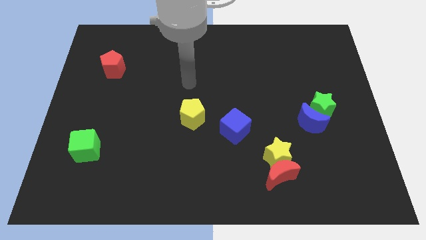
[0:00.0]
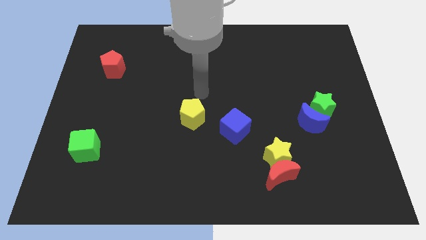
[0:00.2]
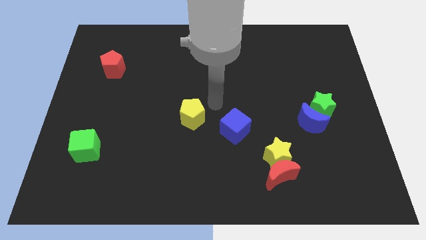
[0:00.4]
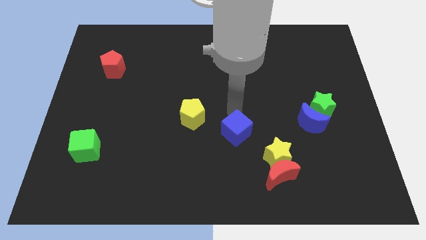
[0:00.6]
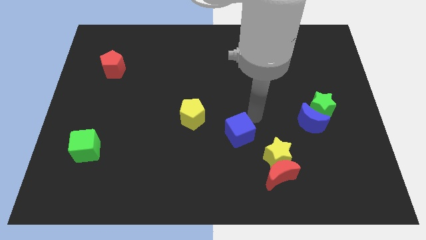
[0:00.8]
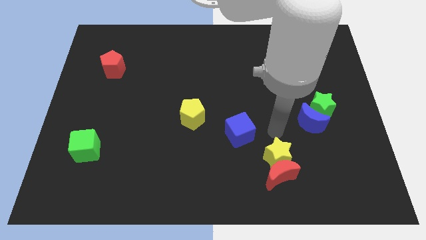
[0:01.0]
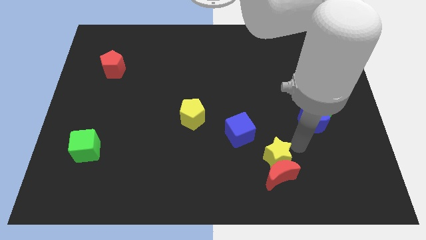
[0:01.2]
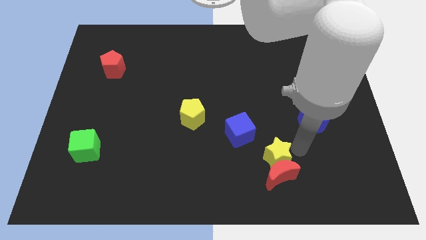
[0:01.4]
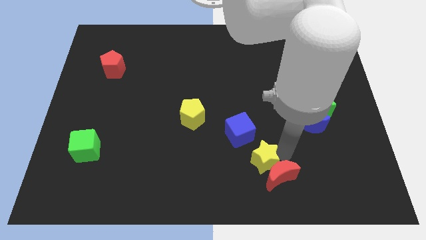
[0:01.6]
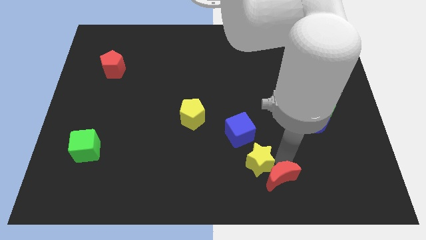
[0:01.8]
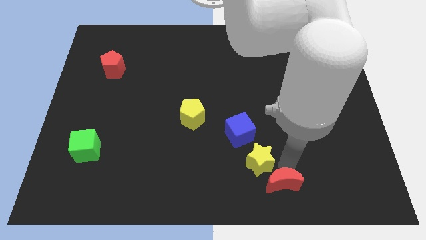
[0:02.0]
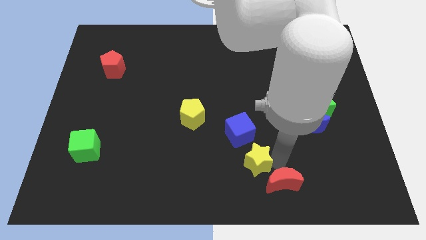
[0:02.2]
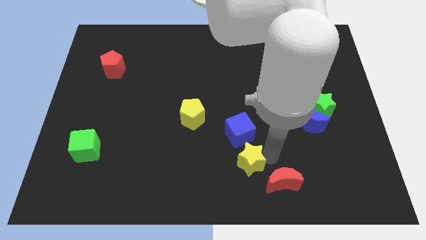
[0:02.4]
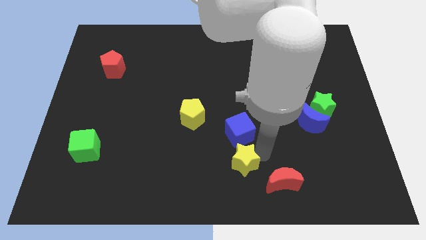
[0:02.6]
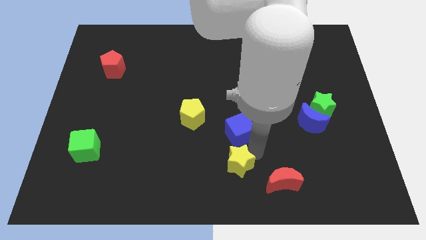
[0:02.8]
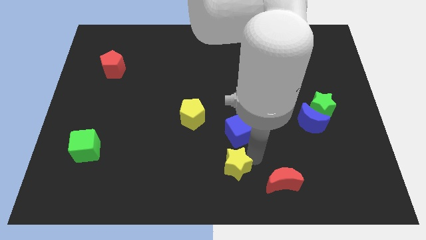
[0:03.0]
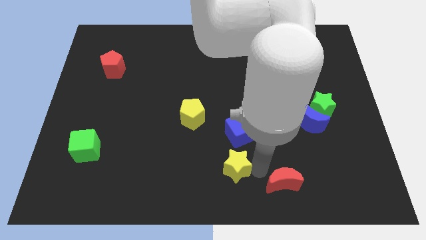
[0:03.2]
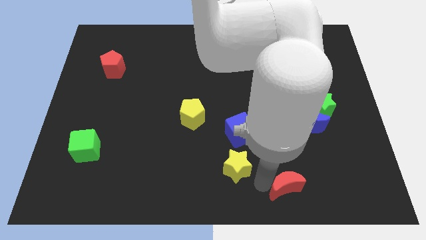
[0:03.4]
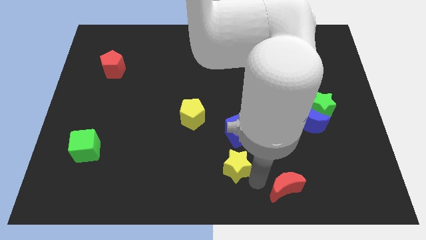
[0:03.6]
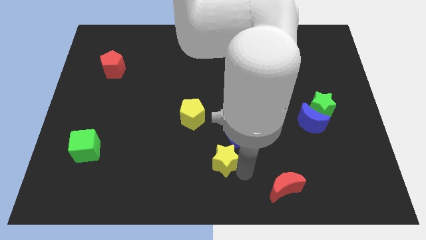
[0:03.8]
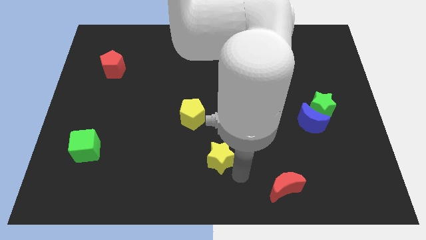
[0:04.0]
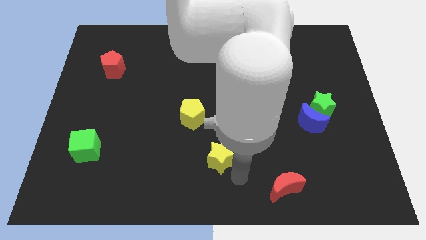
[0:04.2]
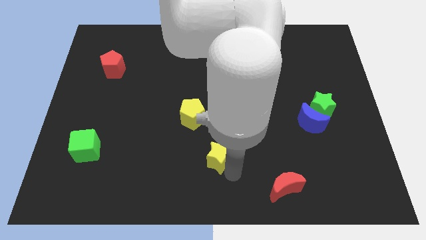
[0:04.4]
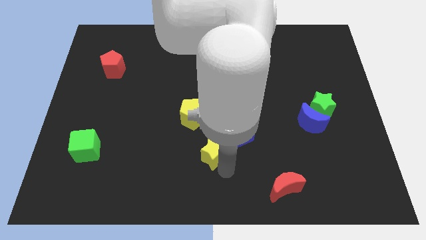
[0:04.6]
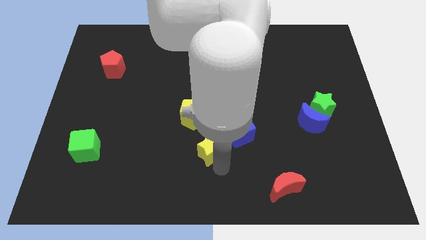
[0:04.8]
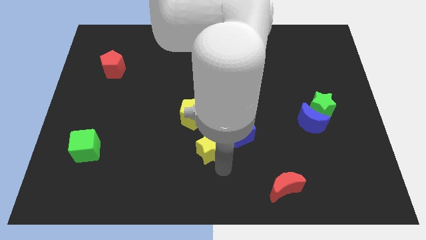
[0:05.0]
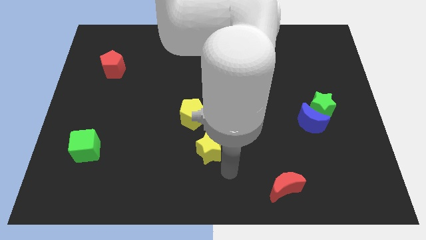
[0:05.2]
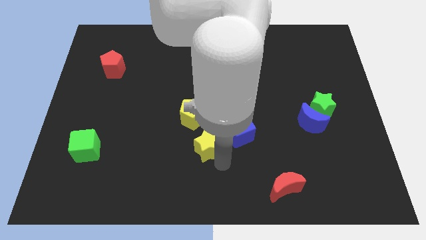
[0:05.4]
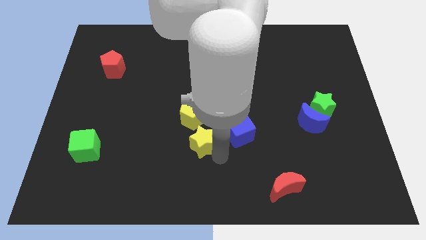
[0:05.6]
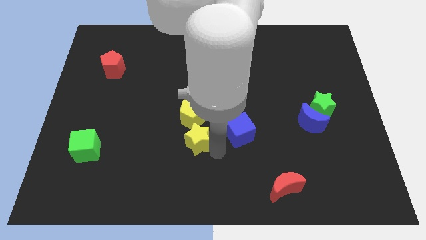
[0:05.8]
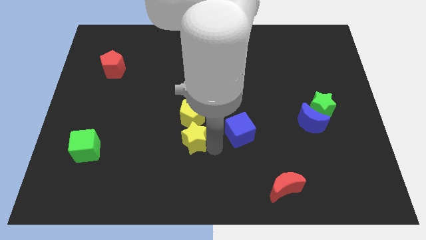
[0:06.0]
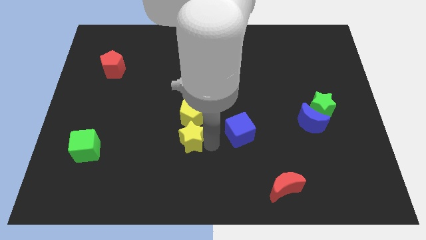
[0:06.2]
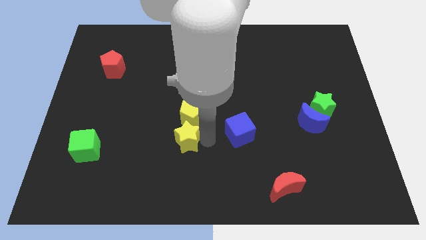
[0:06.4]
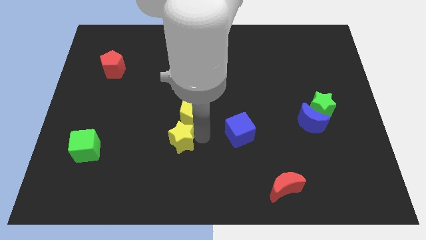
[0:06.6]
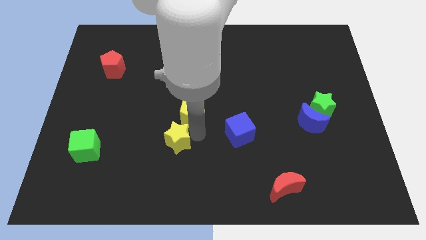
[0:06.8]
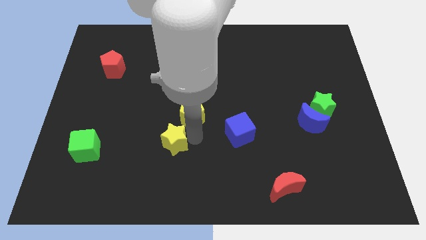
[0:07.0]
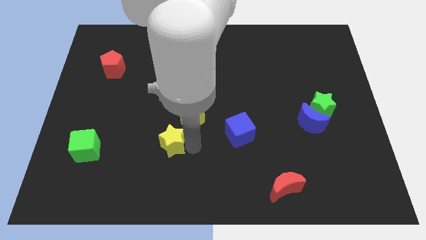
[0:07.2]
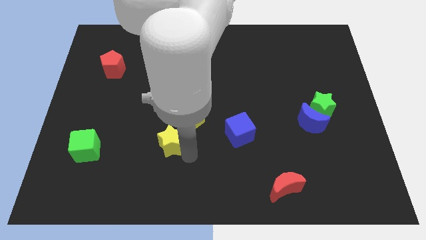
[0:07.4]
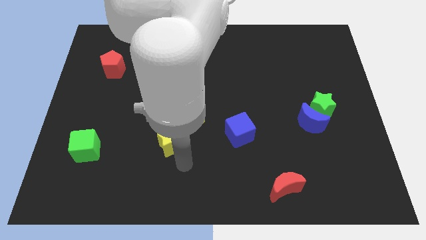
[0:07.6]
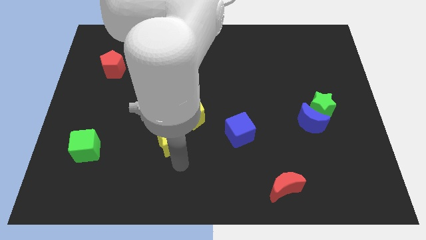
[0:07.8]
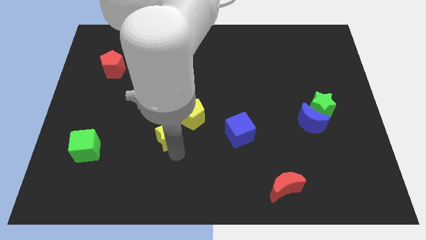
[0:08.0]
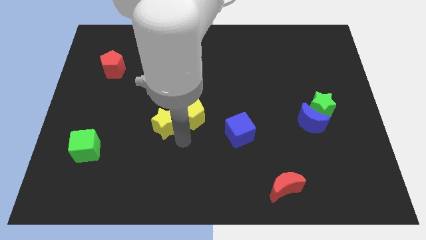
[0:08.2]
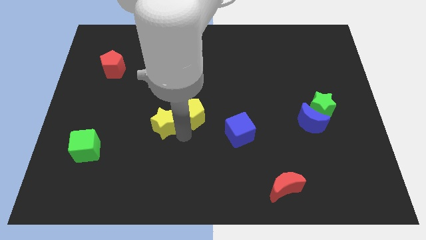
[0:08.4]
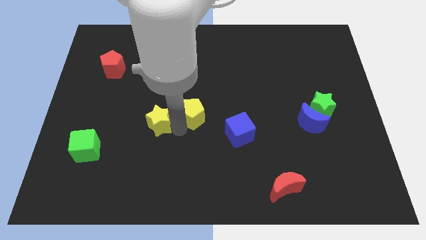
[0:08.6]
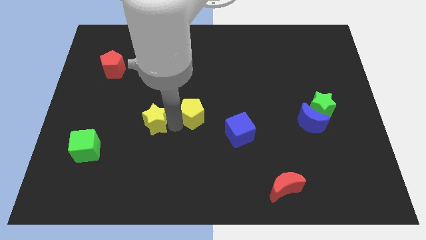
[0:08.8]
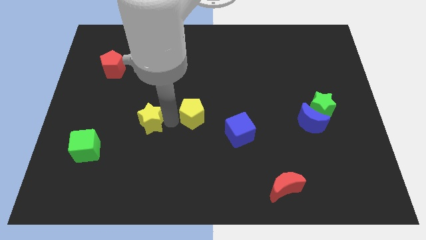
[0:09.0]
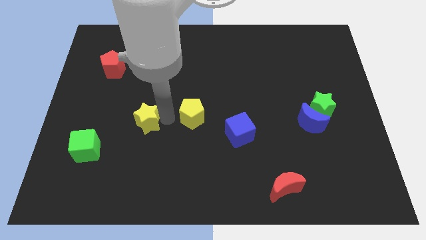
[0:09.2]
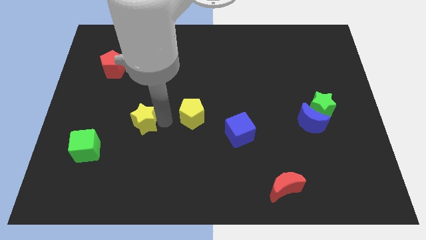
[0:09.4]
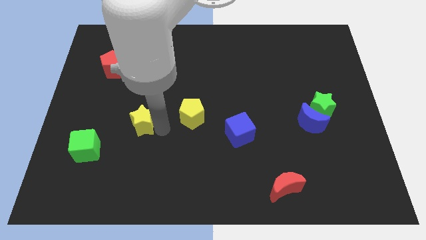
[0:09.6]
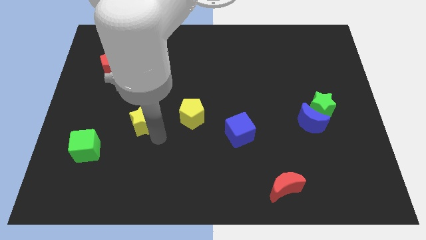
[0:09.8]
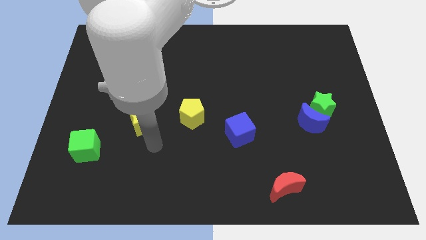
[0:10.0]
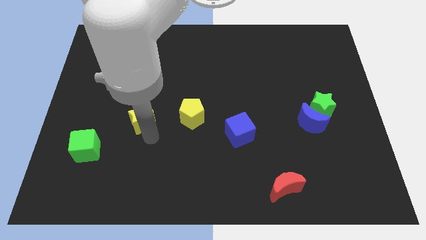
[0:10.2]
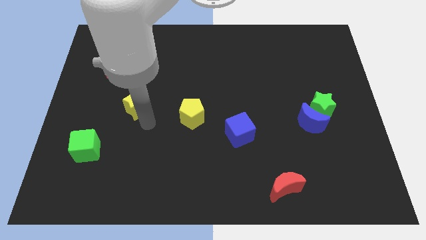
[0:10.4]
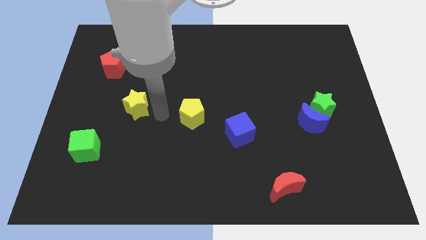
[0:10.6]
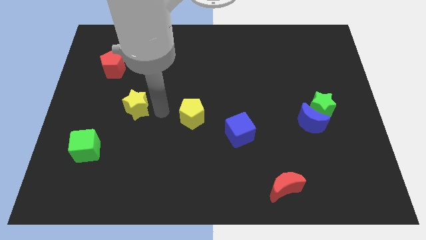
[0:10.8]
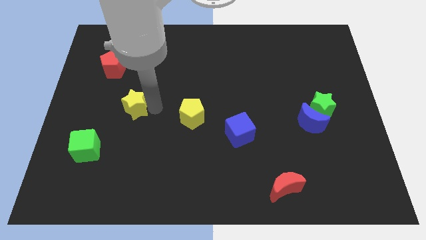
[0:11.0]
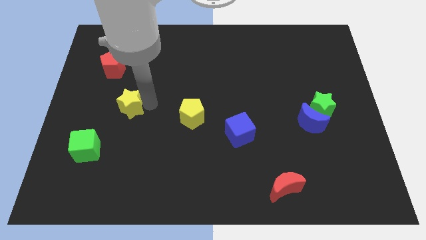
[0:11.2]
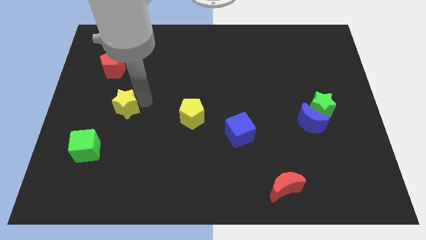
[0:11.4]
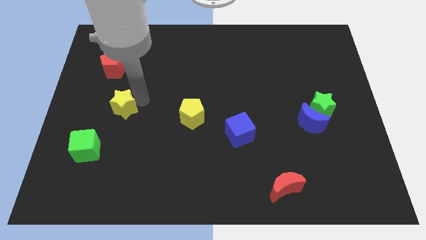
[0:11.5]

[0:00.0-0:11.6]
move the yellow star to the bottom of the red pentagon

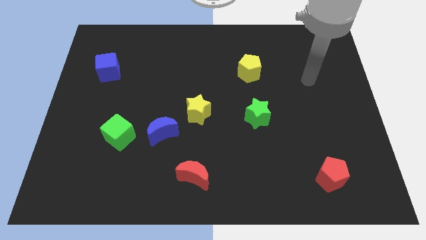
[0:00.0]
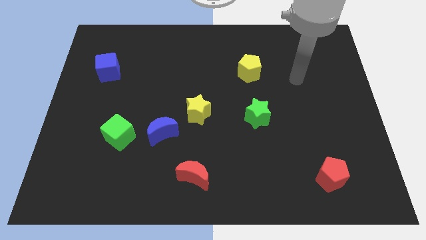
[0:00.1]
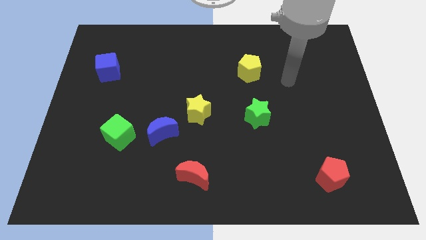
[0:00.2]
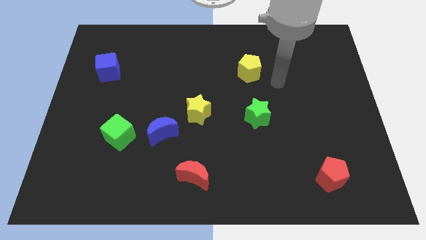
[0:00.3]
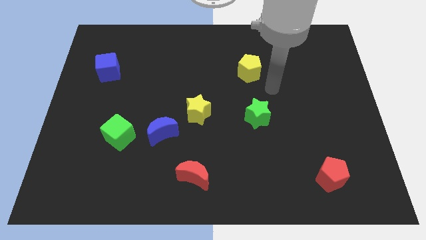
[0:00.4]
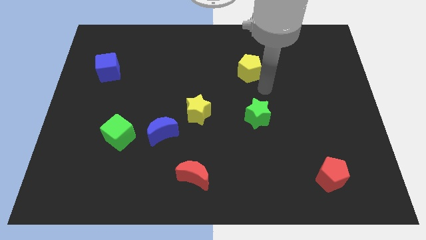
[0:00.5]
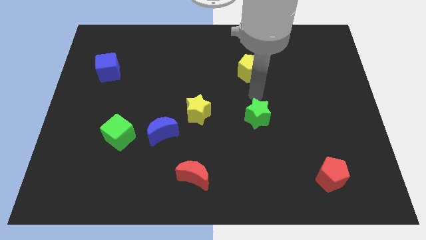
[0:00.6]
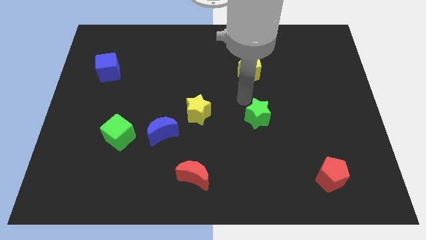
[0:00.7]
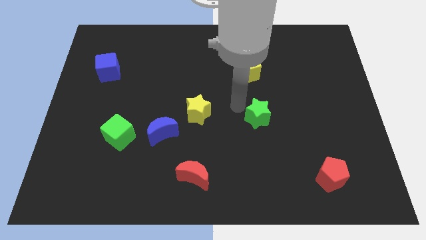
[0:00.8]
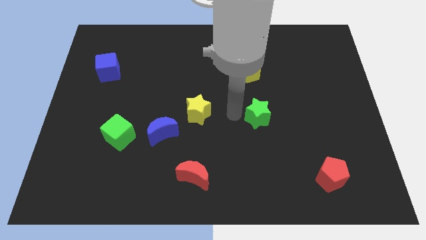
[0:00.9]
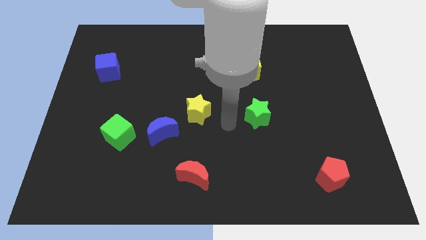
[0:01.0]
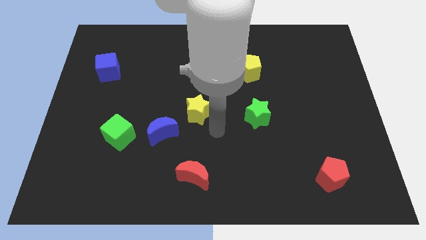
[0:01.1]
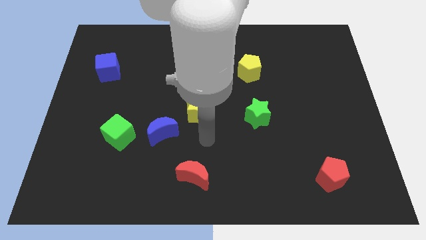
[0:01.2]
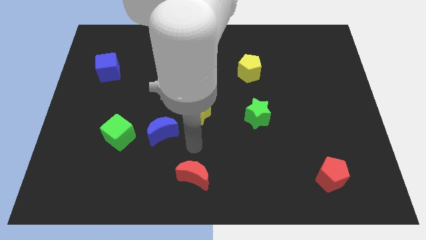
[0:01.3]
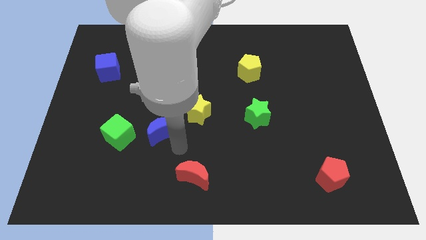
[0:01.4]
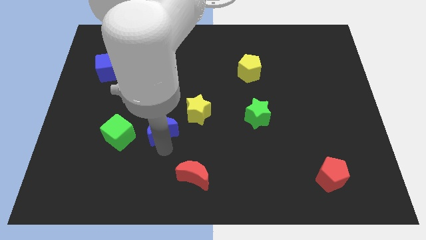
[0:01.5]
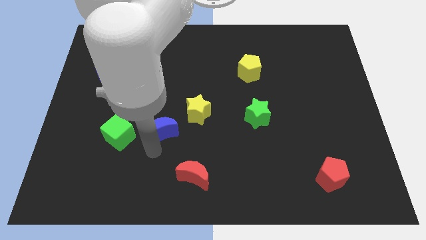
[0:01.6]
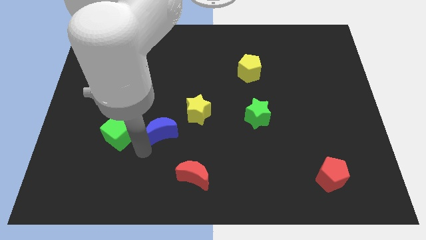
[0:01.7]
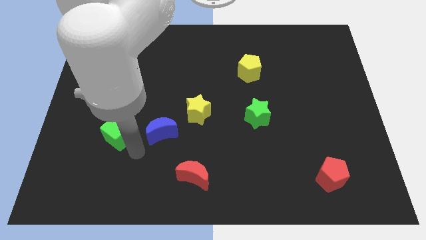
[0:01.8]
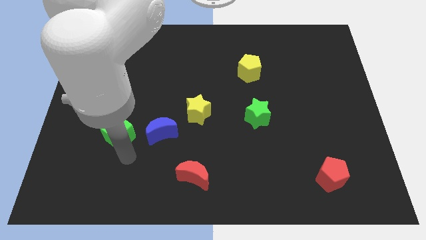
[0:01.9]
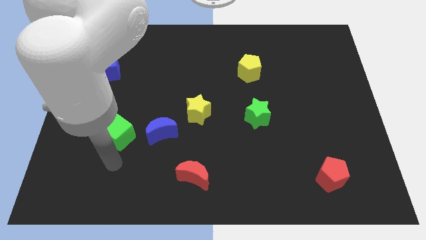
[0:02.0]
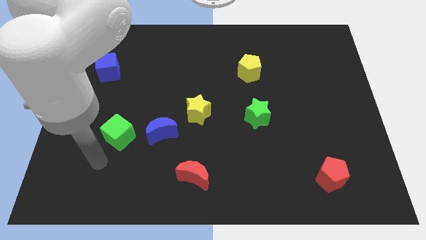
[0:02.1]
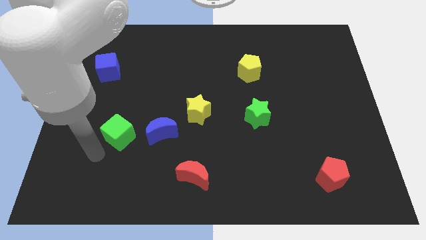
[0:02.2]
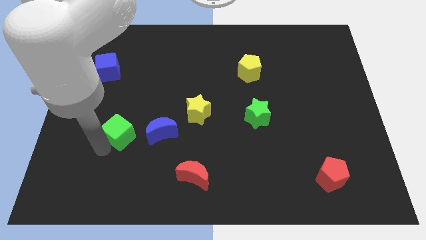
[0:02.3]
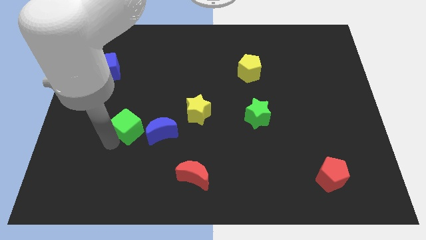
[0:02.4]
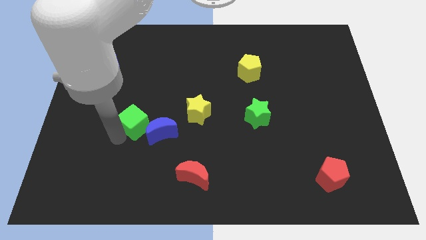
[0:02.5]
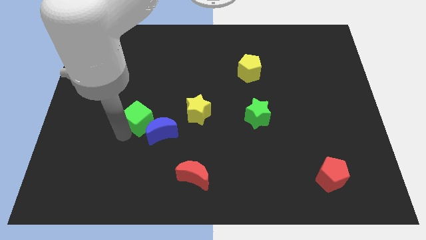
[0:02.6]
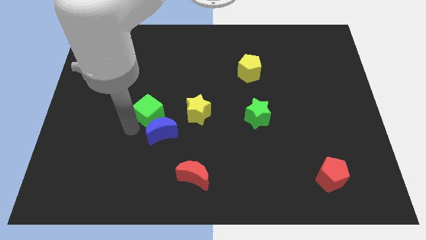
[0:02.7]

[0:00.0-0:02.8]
move the green cube to the top side of the blue moon
